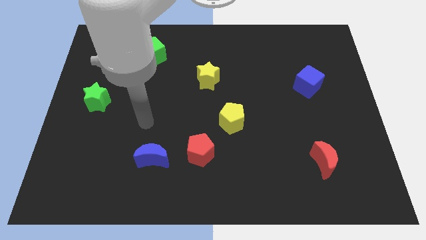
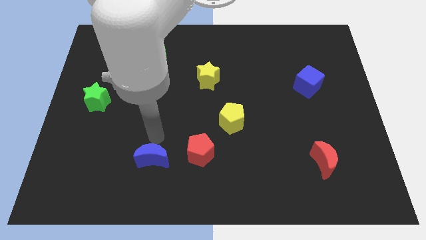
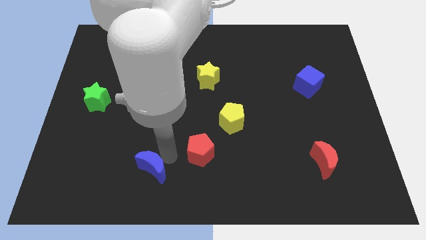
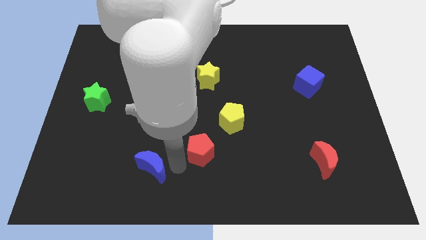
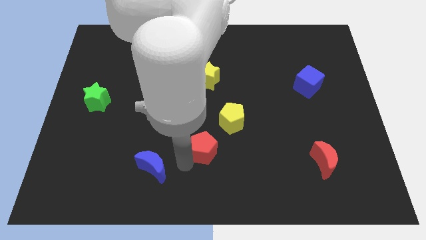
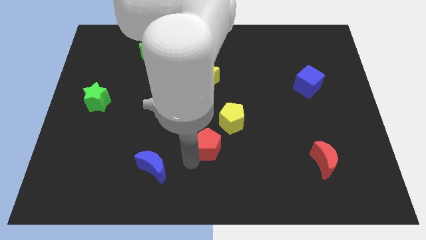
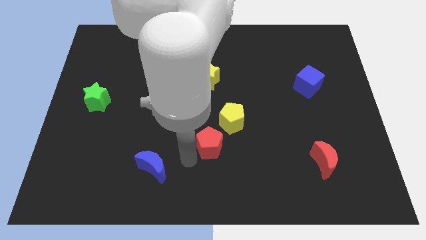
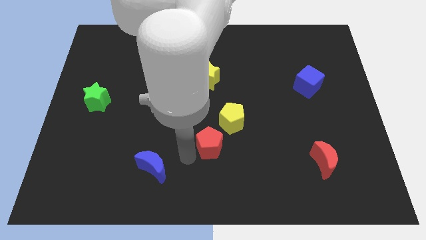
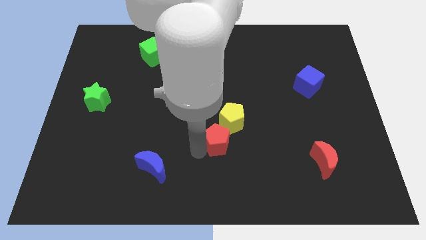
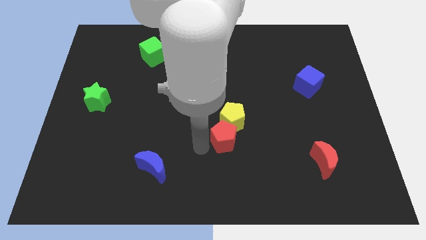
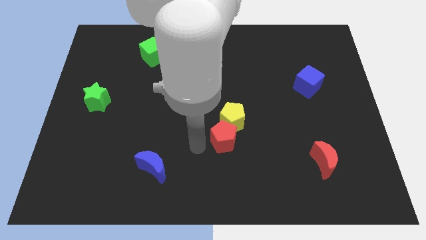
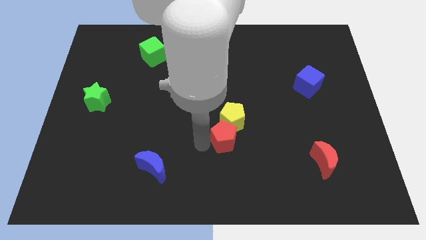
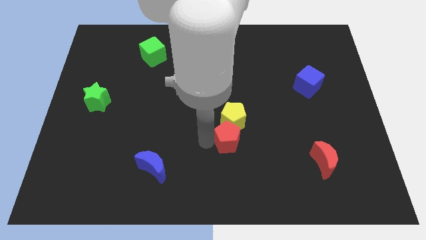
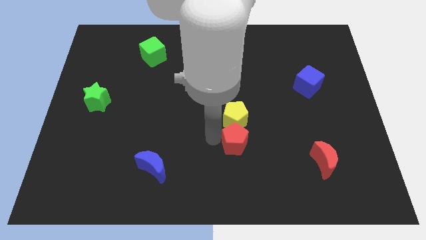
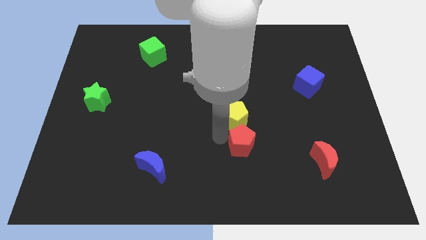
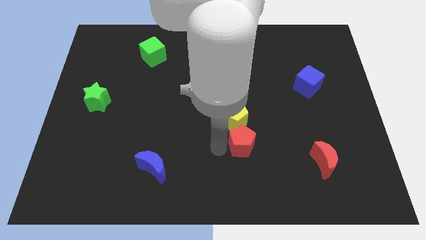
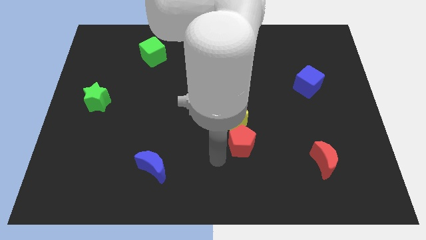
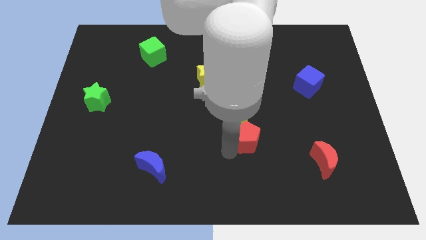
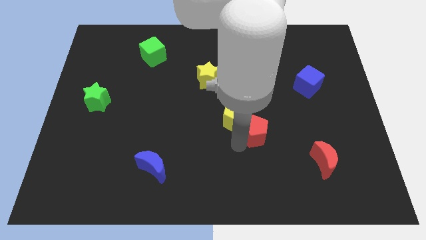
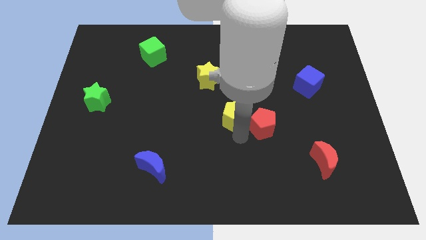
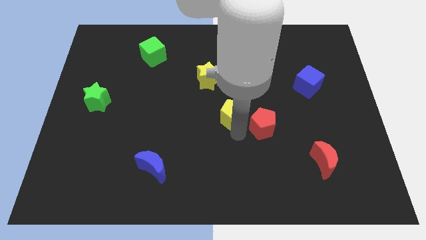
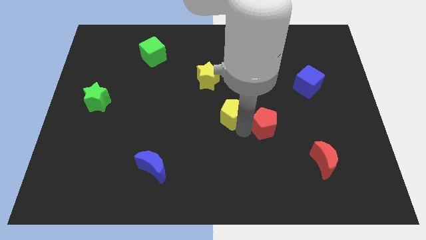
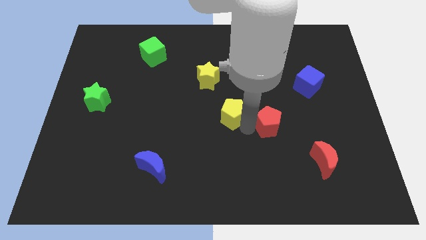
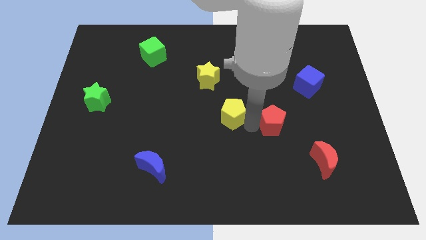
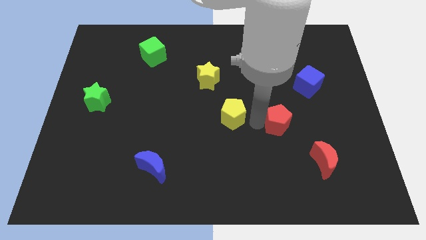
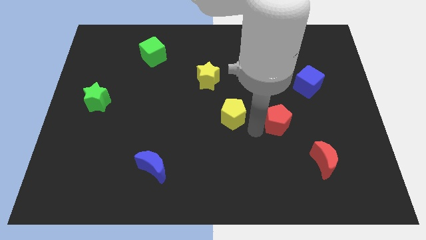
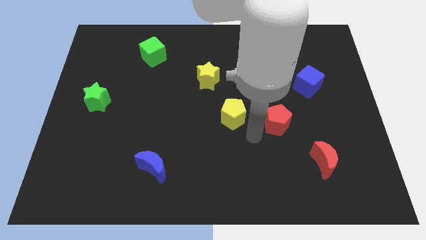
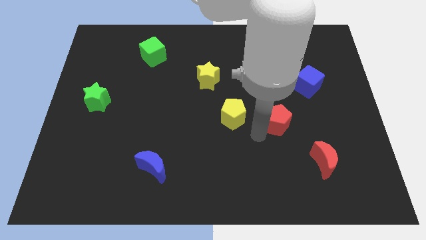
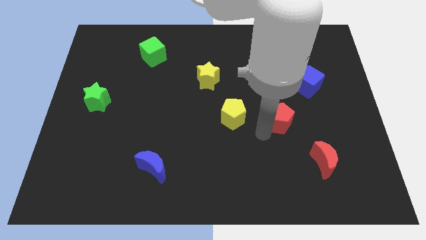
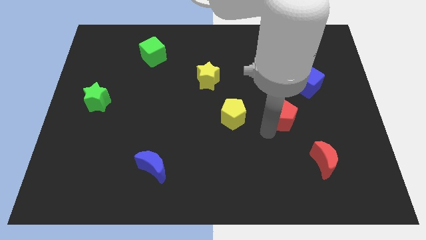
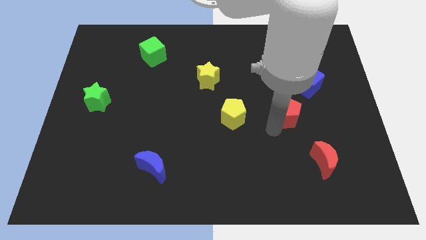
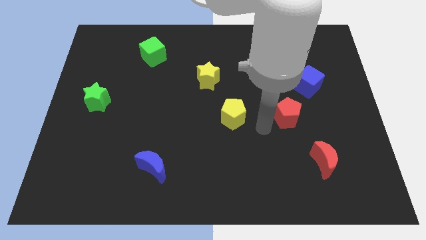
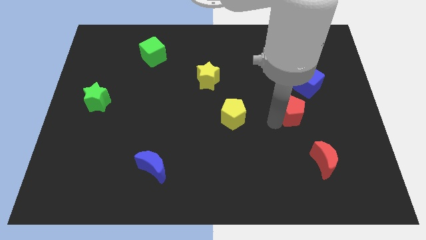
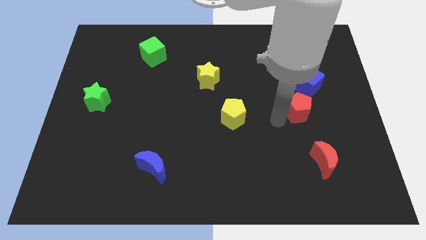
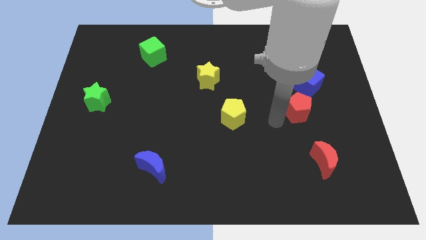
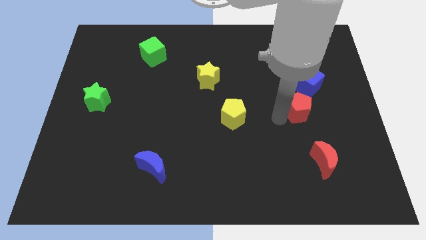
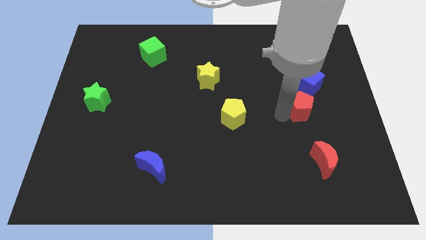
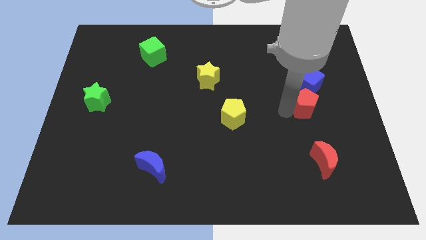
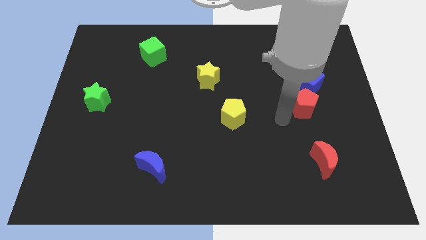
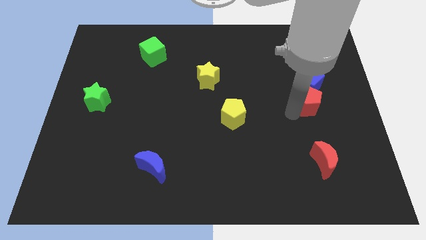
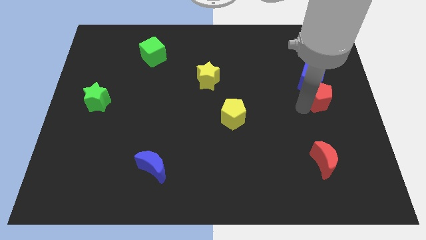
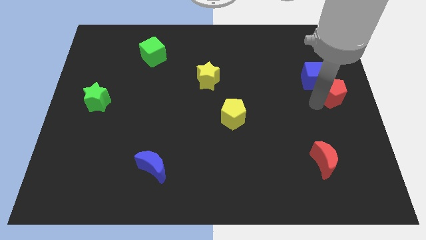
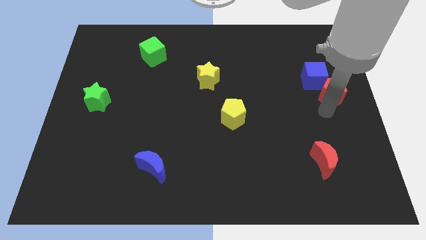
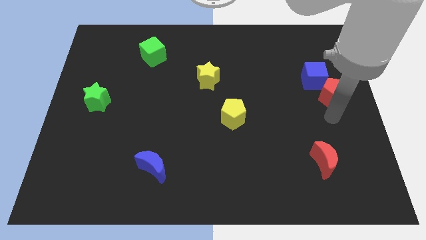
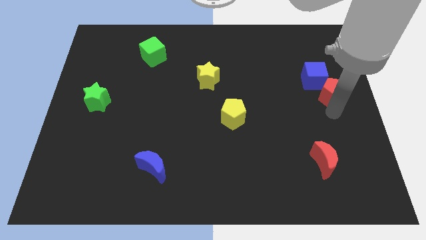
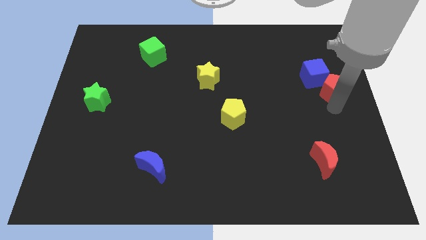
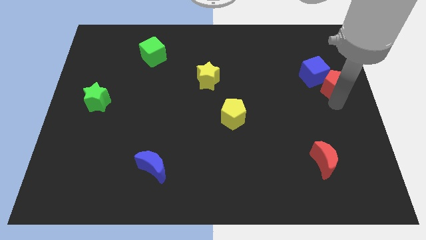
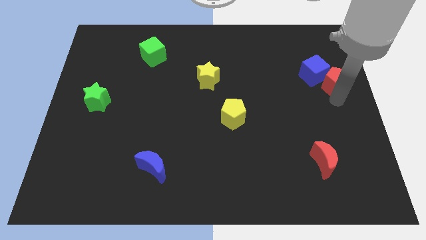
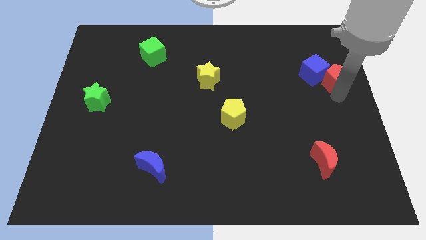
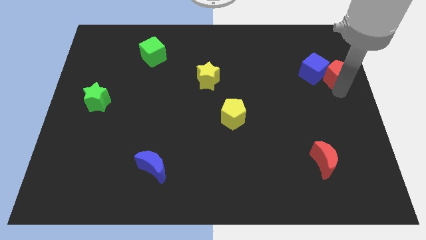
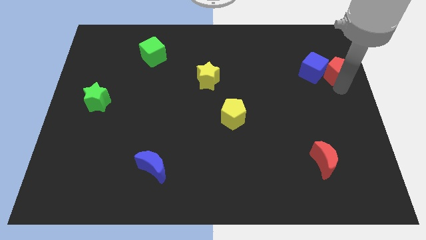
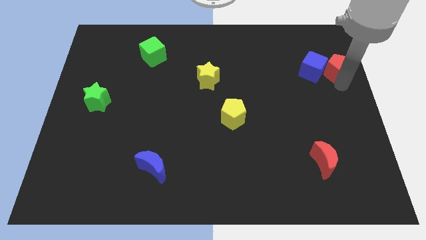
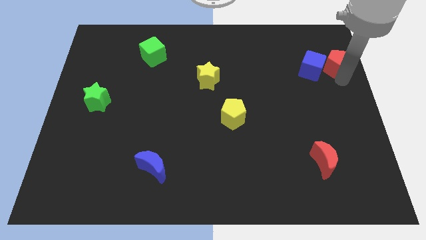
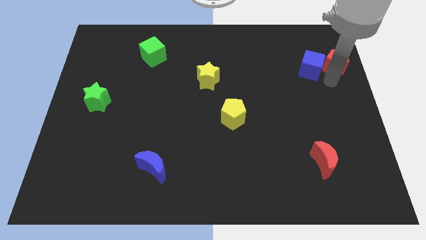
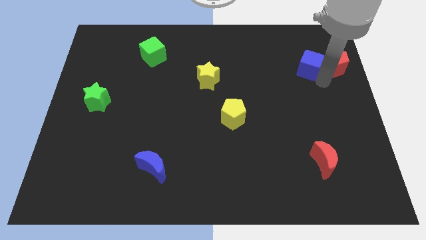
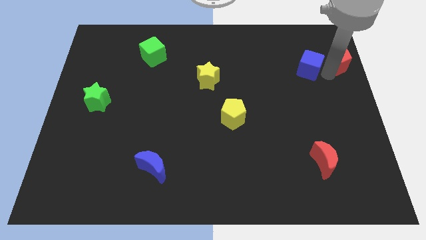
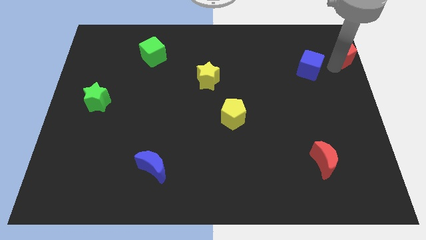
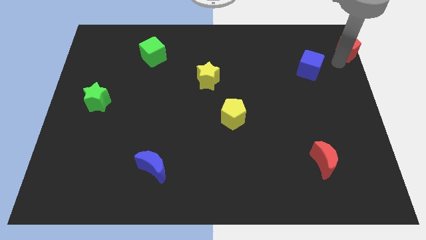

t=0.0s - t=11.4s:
move the red pentagon to the top right corner

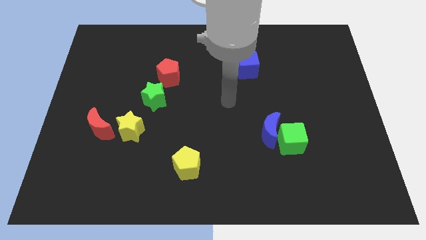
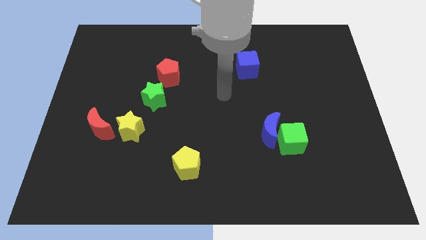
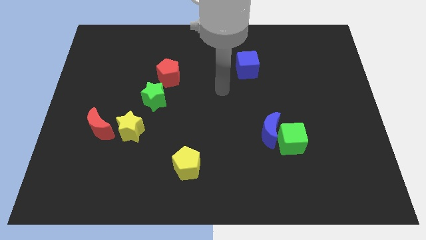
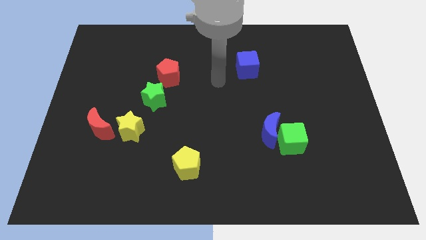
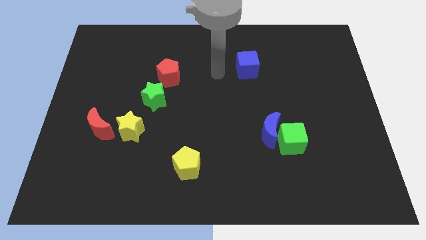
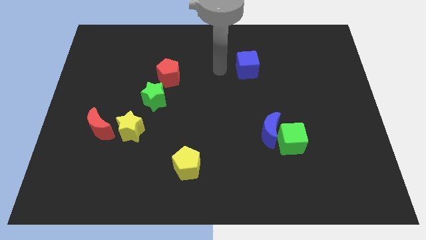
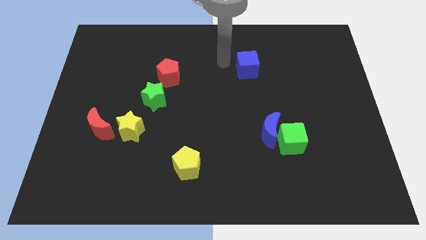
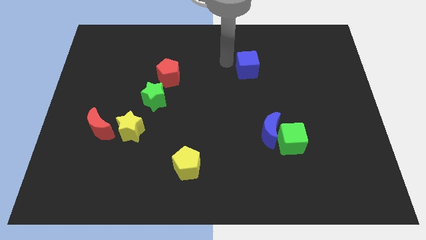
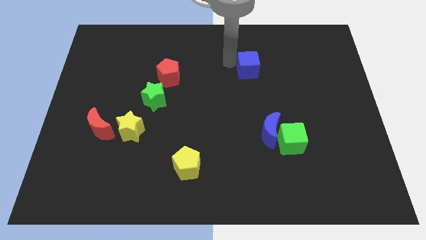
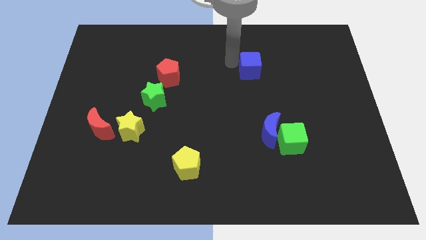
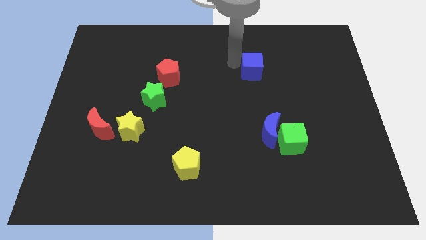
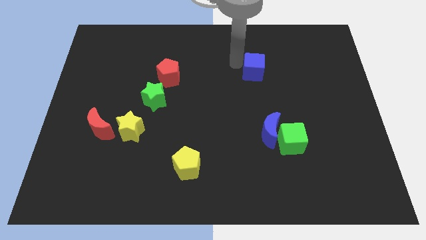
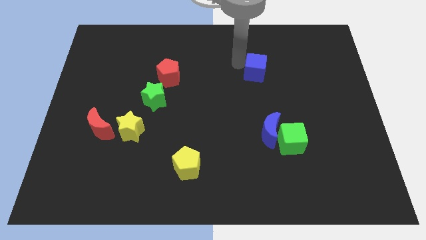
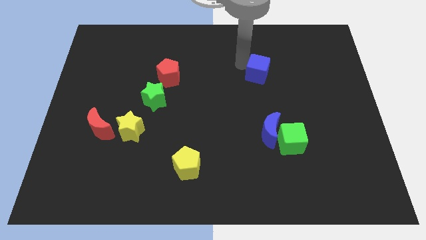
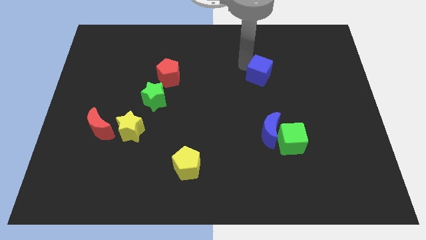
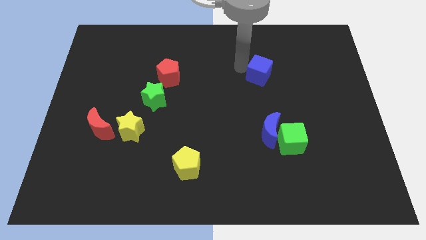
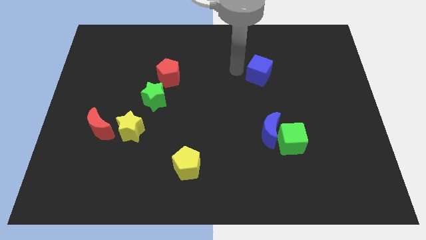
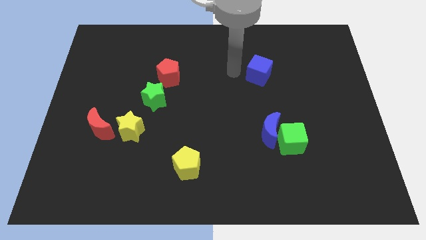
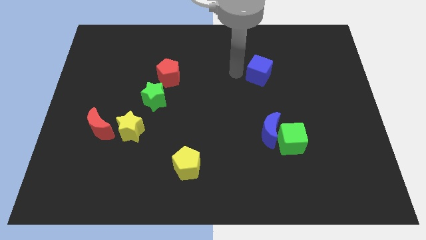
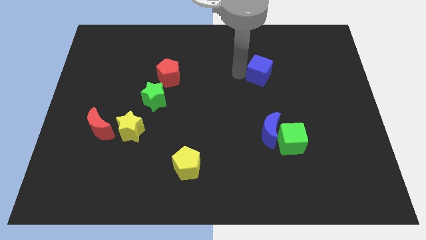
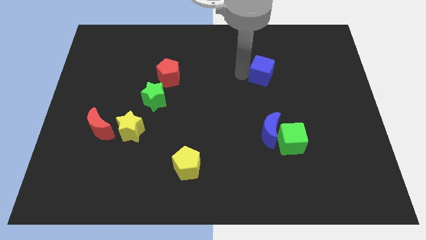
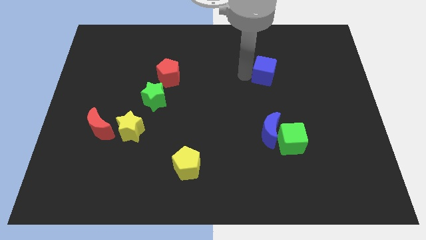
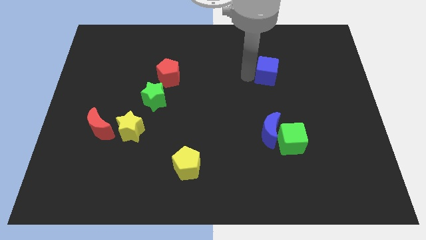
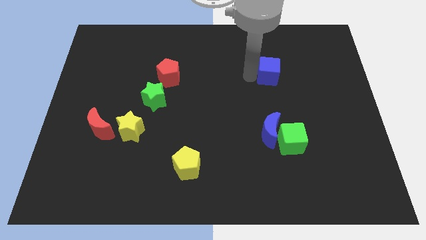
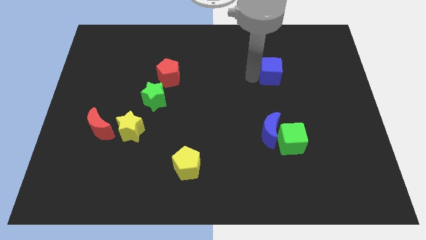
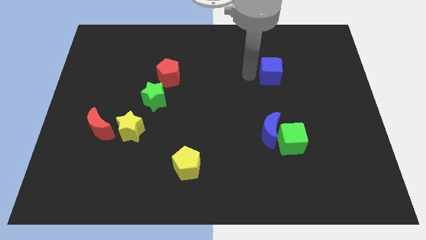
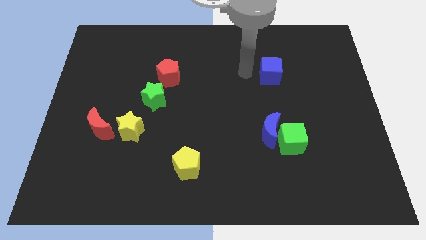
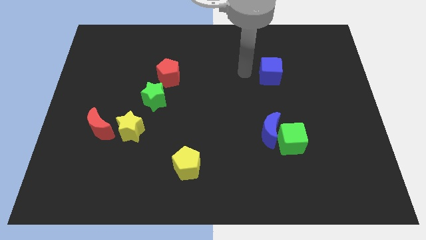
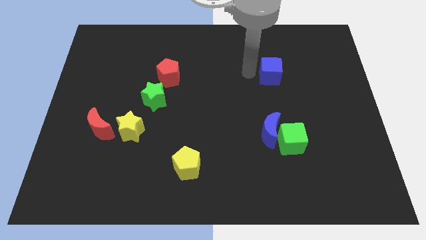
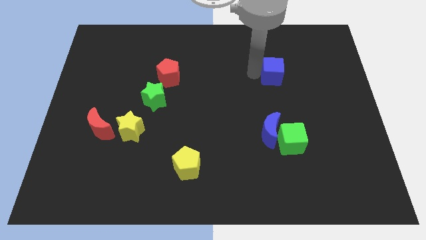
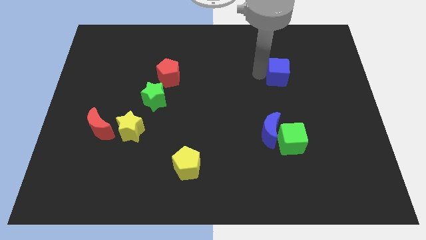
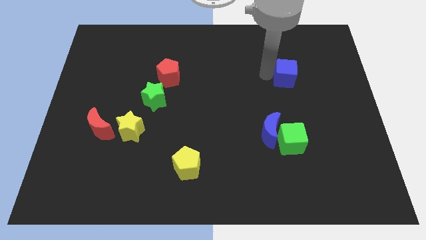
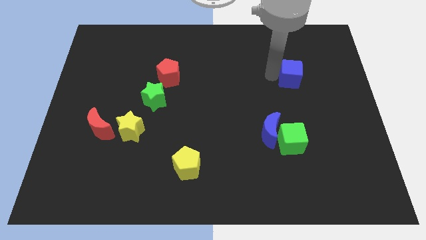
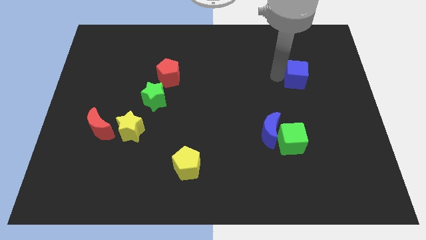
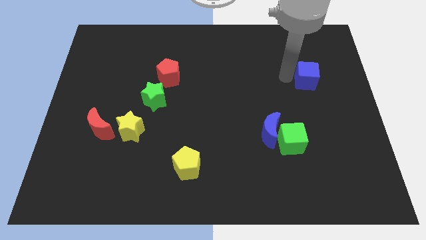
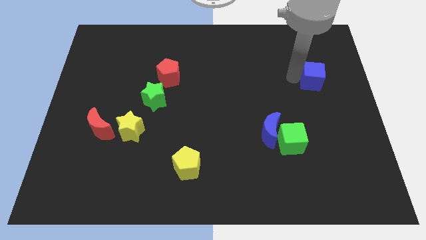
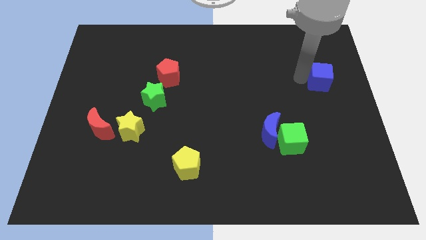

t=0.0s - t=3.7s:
move the blue cube to the center right
